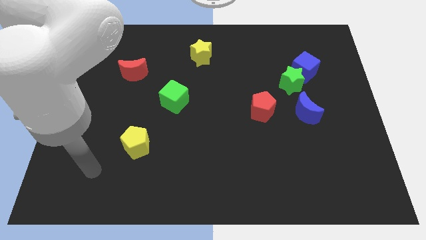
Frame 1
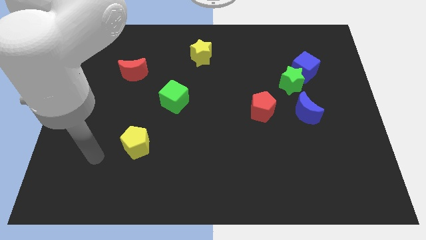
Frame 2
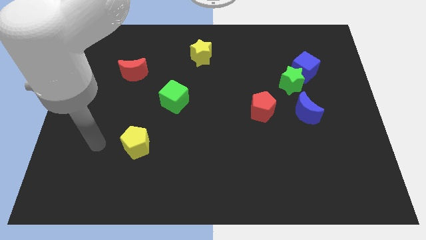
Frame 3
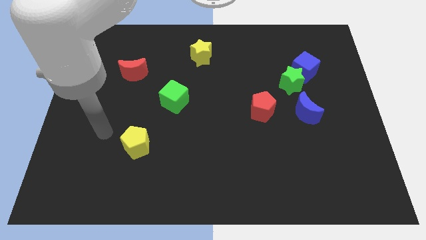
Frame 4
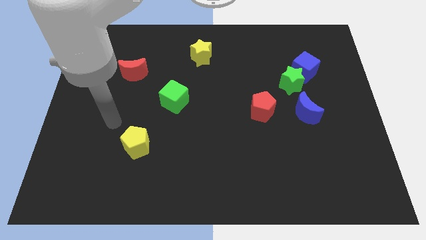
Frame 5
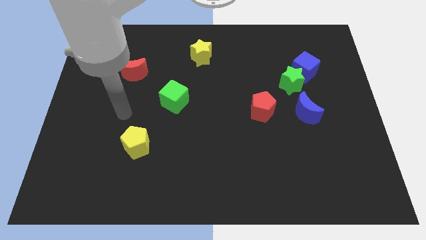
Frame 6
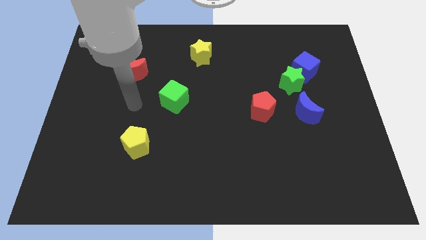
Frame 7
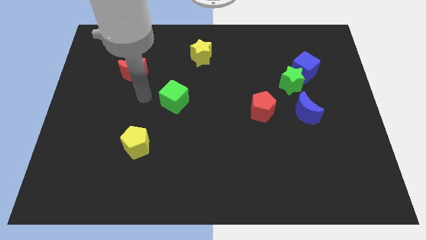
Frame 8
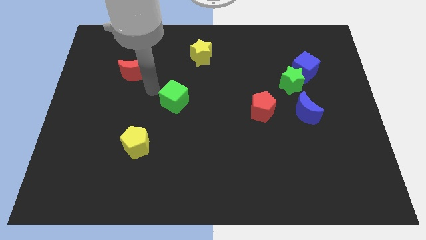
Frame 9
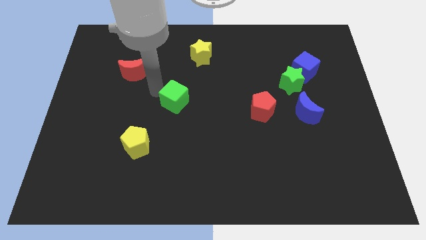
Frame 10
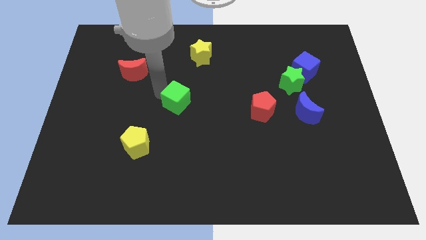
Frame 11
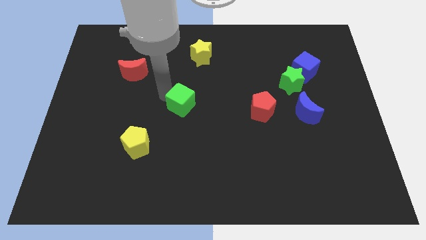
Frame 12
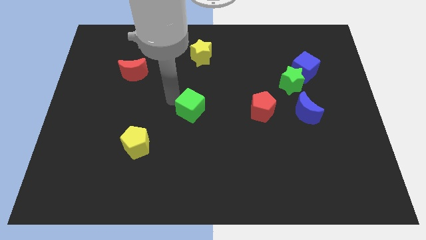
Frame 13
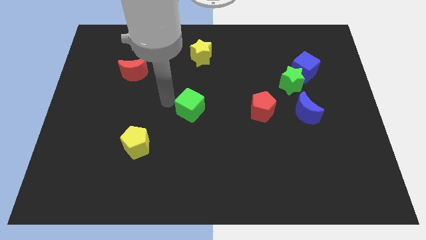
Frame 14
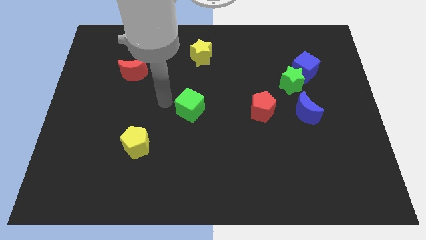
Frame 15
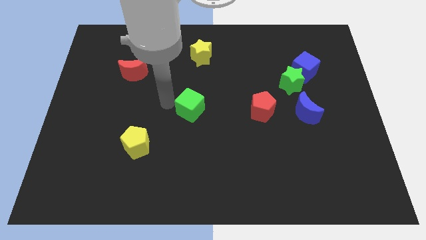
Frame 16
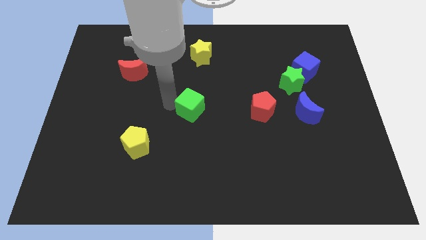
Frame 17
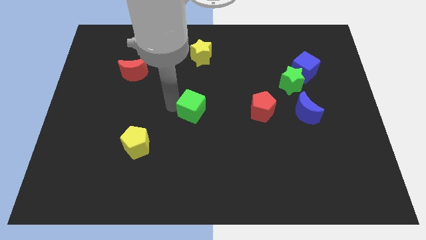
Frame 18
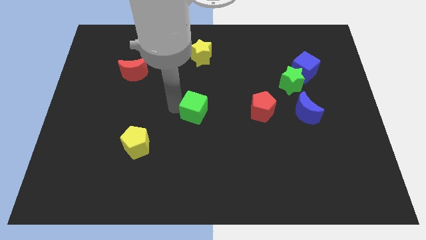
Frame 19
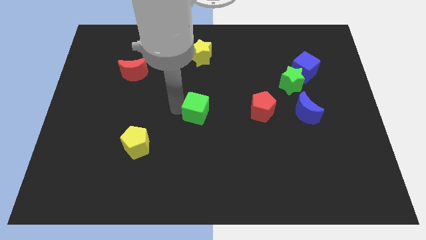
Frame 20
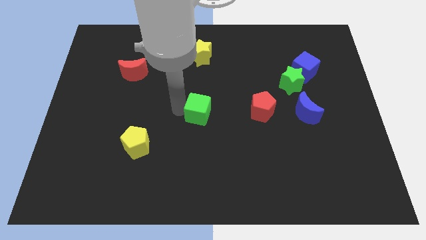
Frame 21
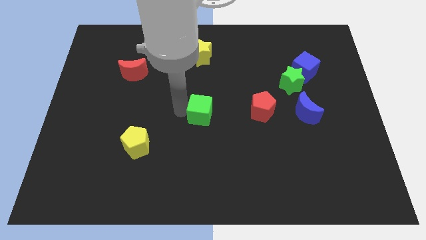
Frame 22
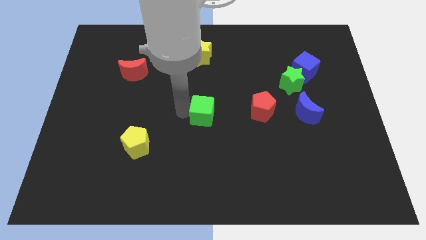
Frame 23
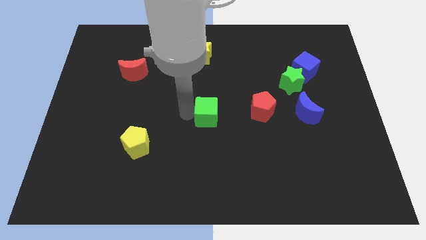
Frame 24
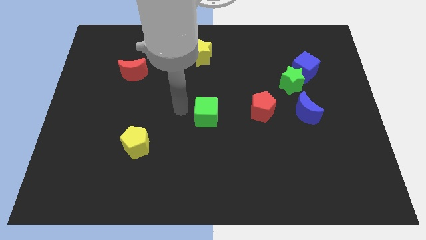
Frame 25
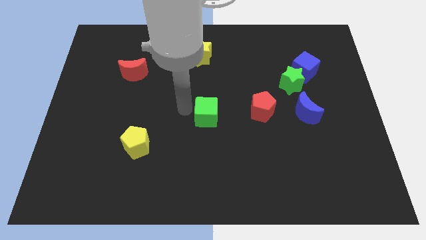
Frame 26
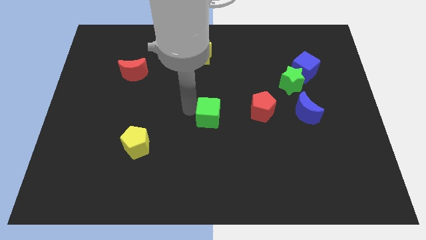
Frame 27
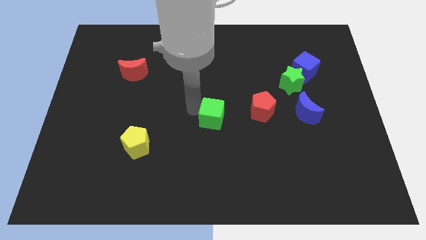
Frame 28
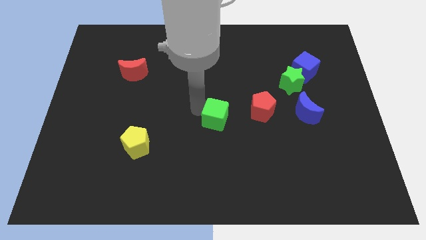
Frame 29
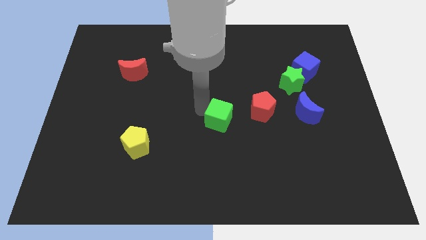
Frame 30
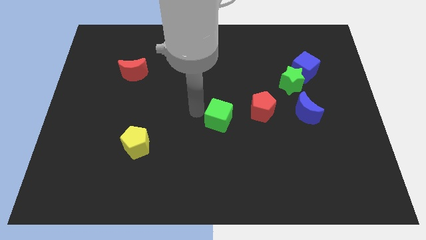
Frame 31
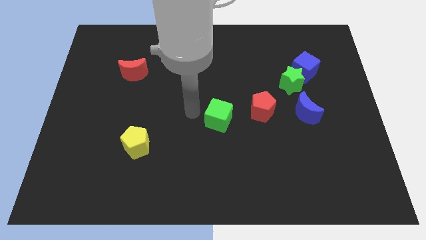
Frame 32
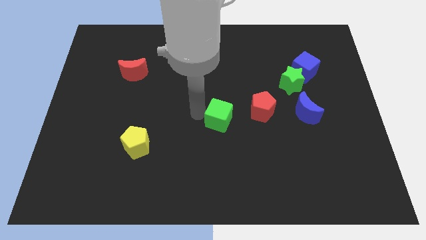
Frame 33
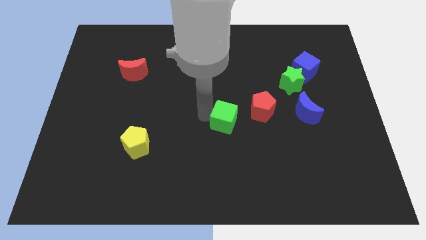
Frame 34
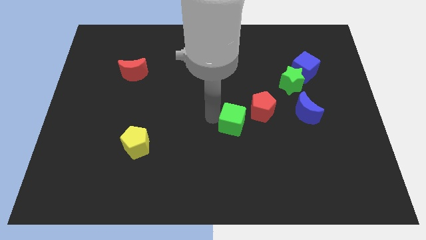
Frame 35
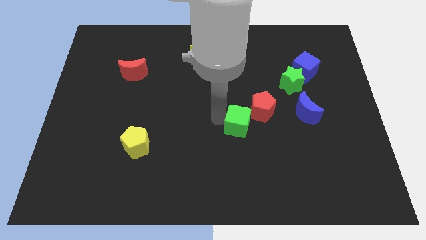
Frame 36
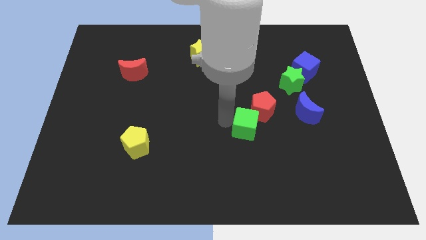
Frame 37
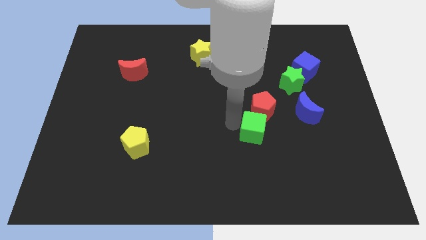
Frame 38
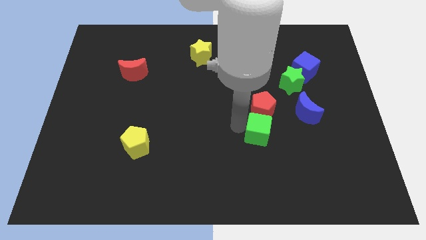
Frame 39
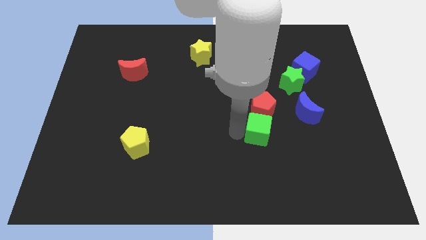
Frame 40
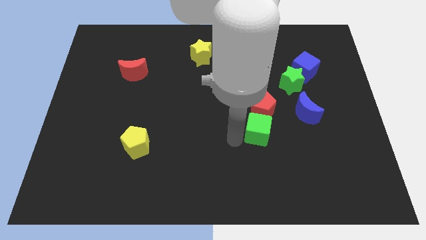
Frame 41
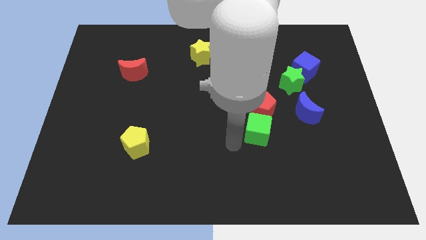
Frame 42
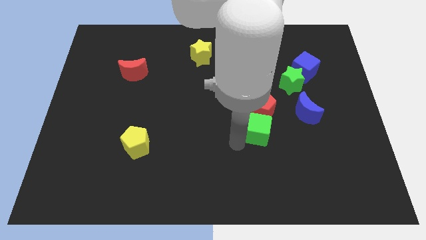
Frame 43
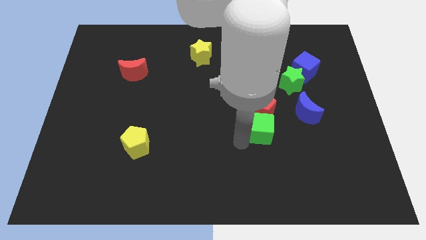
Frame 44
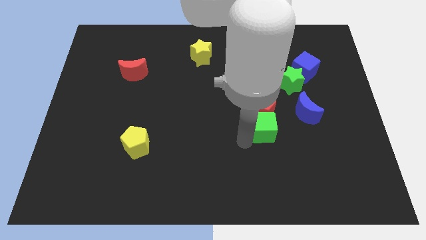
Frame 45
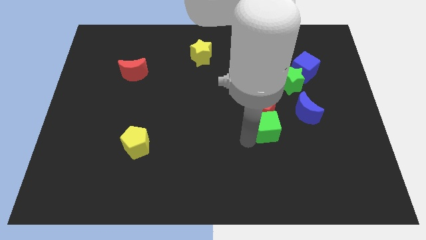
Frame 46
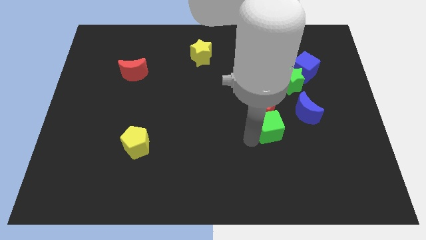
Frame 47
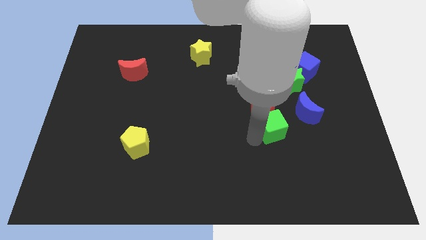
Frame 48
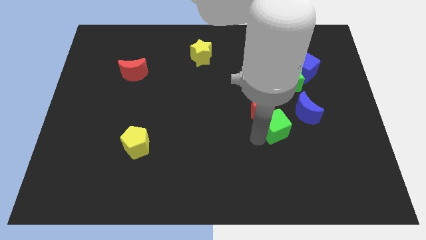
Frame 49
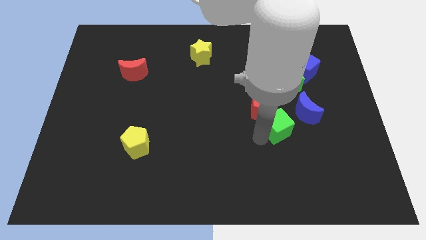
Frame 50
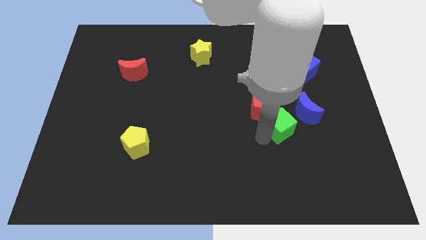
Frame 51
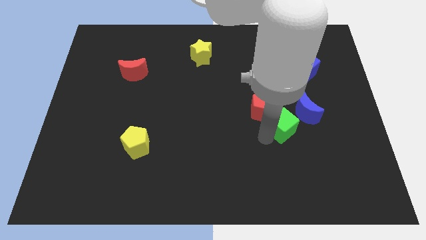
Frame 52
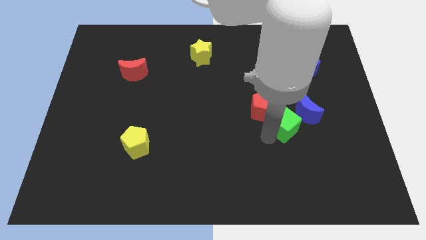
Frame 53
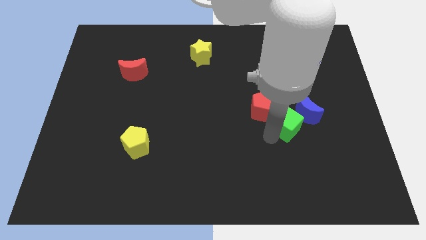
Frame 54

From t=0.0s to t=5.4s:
put the green cube towards the blue moon

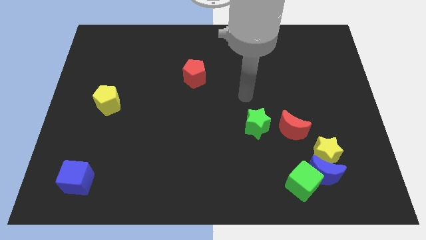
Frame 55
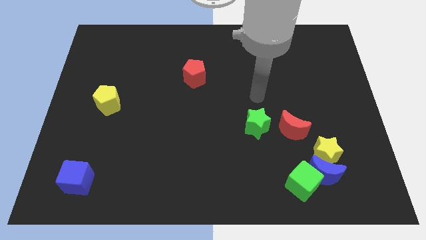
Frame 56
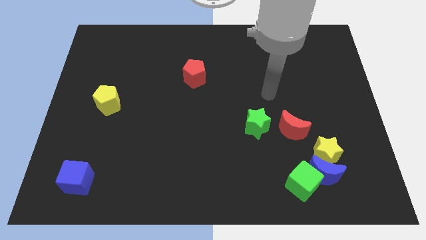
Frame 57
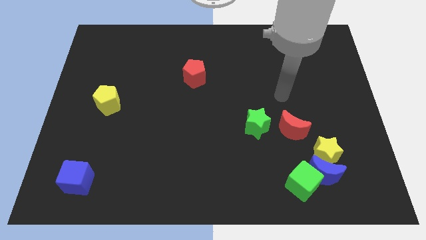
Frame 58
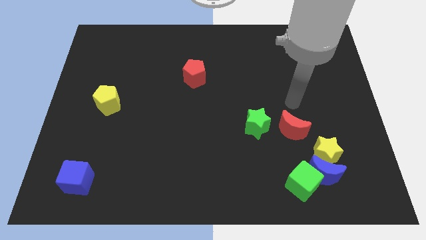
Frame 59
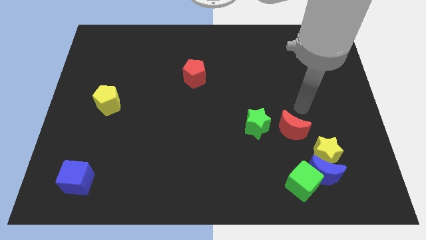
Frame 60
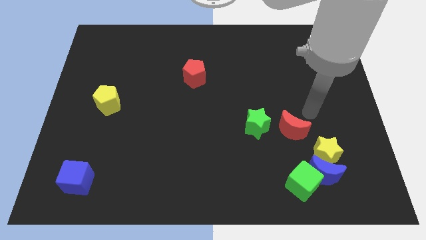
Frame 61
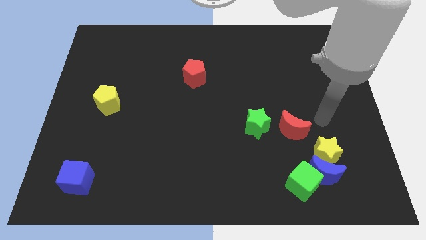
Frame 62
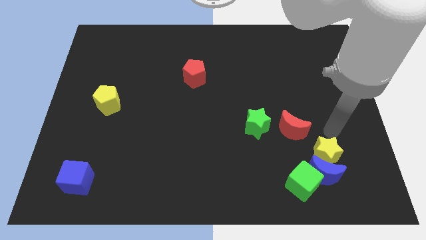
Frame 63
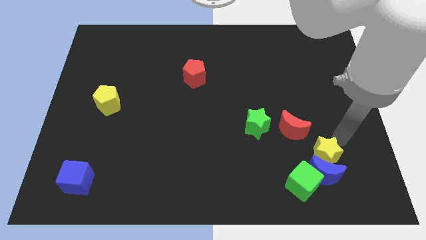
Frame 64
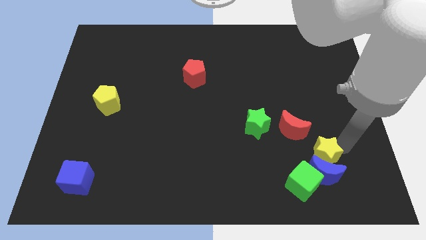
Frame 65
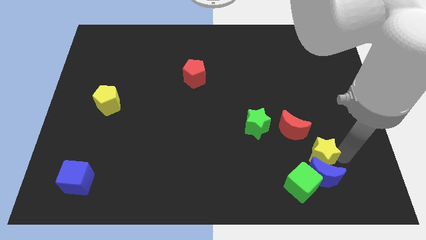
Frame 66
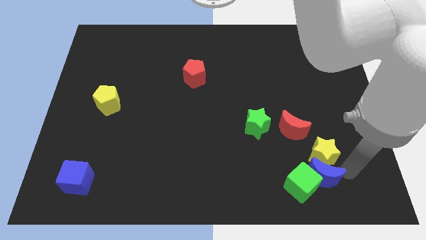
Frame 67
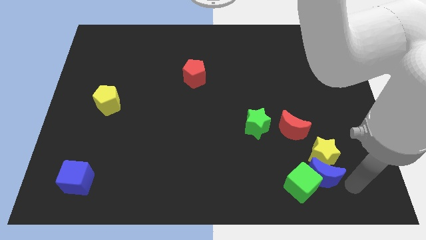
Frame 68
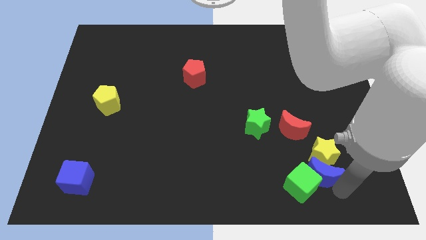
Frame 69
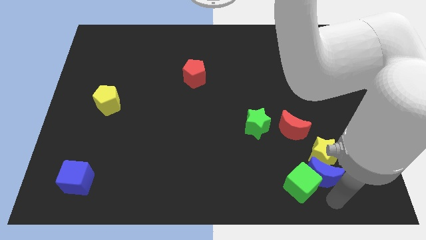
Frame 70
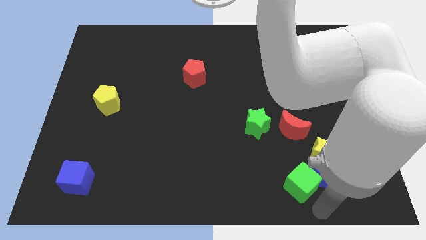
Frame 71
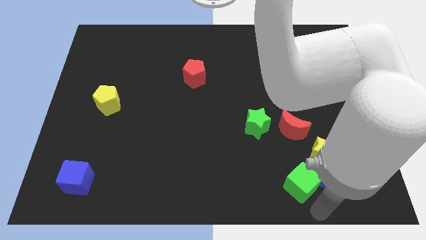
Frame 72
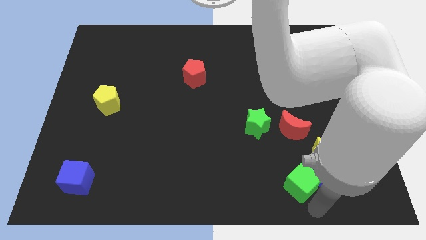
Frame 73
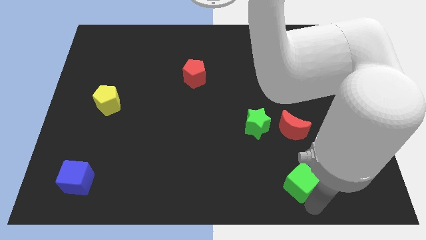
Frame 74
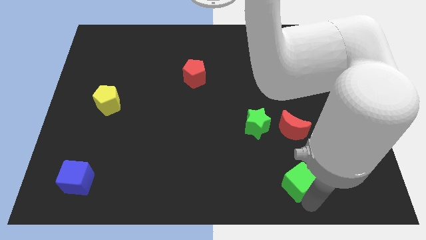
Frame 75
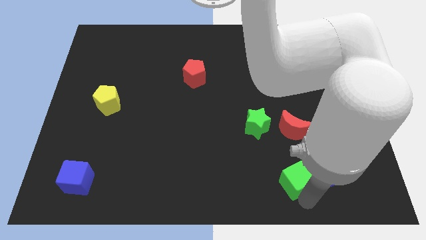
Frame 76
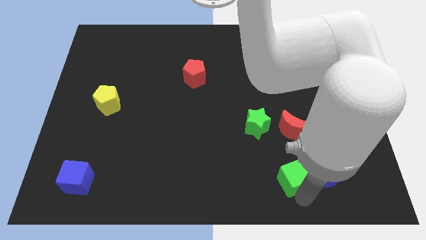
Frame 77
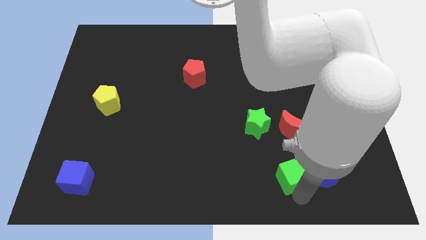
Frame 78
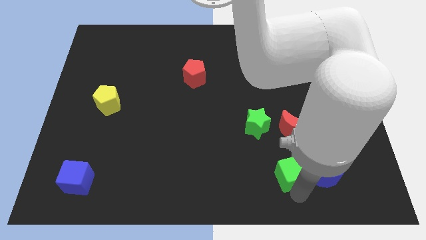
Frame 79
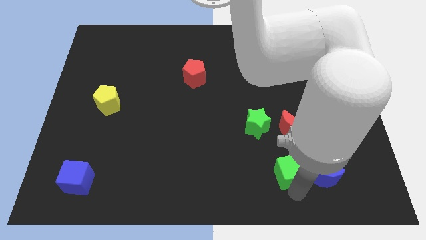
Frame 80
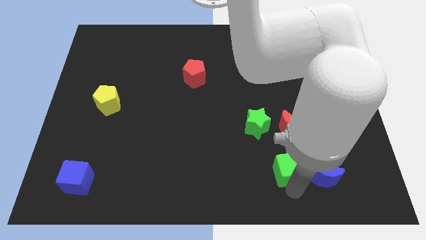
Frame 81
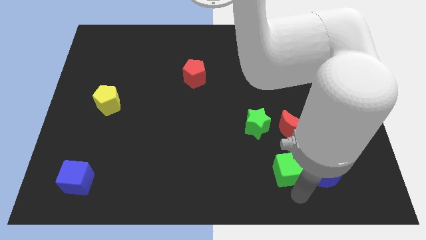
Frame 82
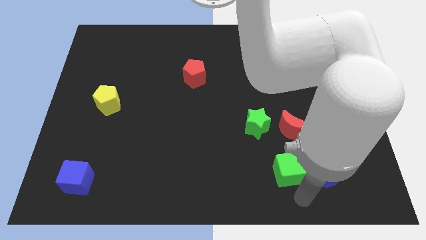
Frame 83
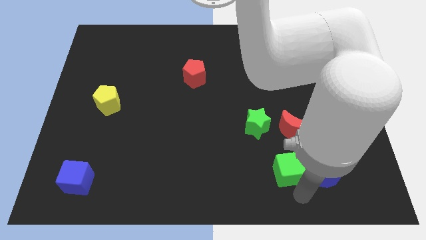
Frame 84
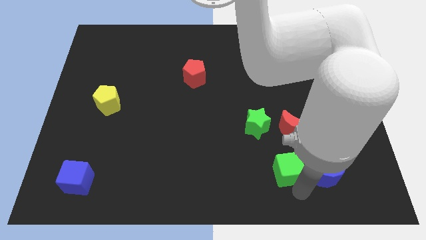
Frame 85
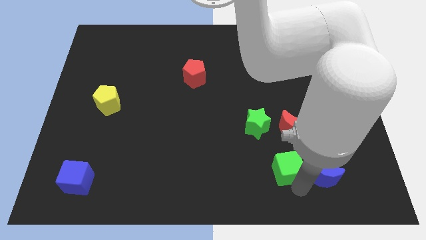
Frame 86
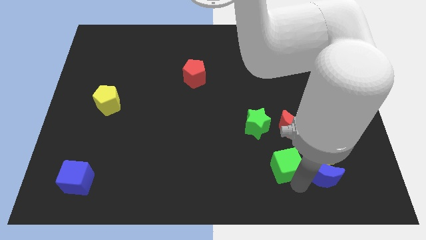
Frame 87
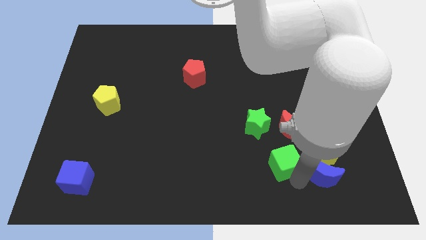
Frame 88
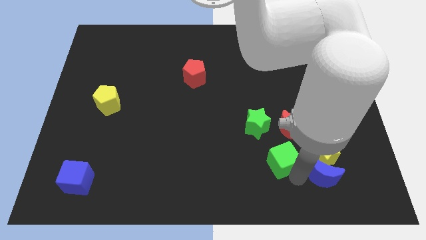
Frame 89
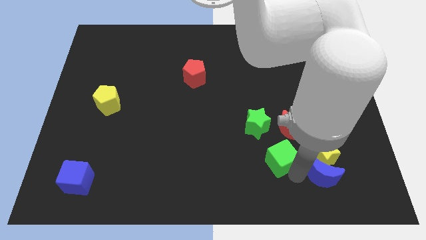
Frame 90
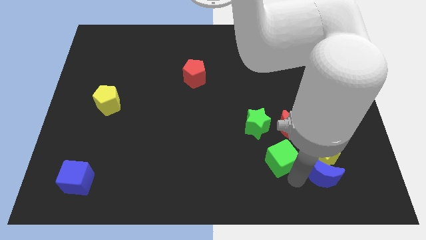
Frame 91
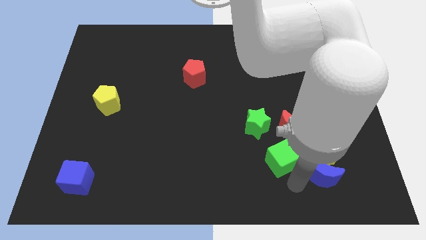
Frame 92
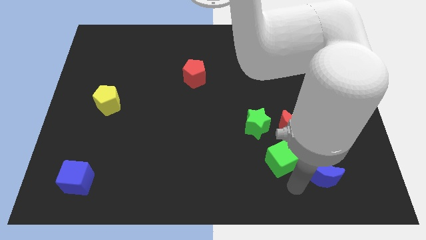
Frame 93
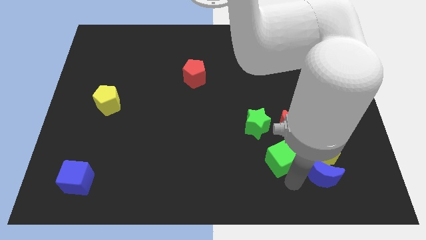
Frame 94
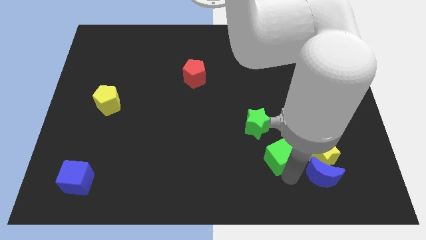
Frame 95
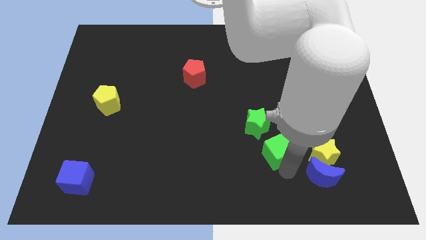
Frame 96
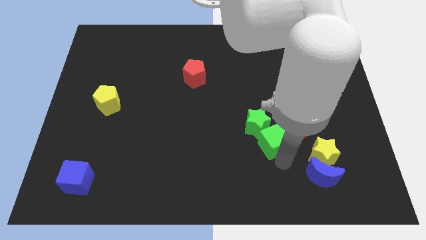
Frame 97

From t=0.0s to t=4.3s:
put the green cube close to the green star
